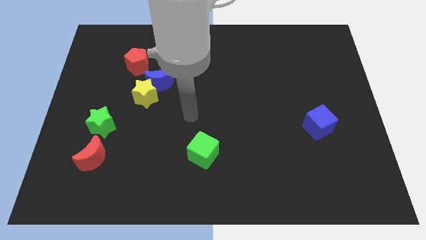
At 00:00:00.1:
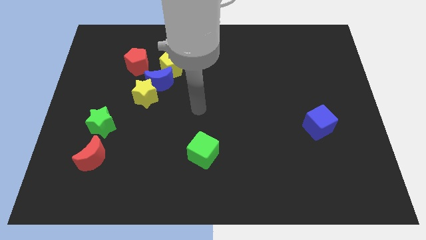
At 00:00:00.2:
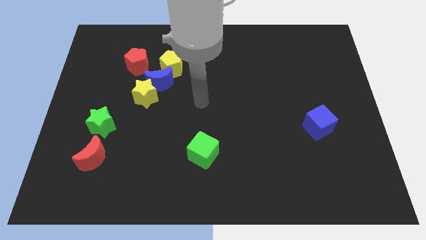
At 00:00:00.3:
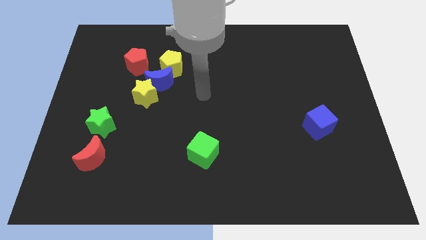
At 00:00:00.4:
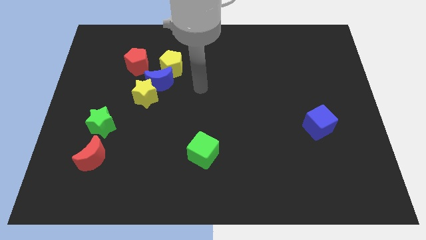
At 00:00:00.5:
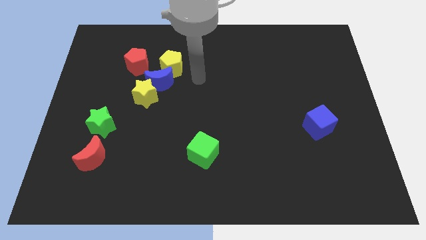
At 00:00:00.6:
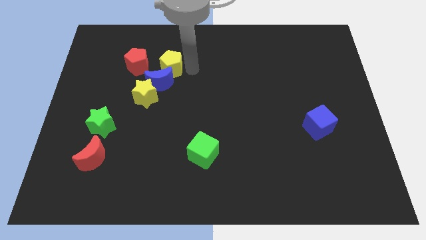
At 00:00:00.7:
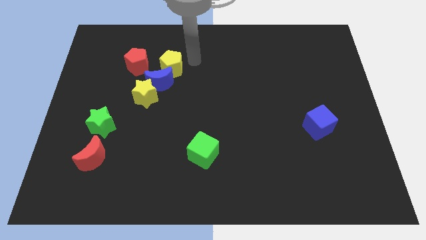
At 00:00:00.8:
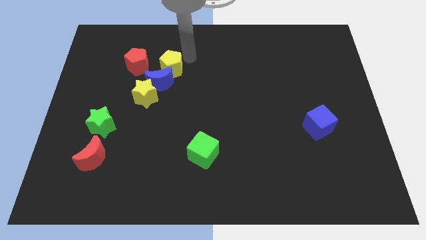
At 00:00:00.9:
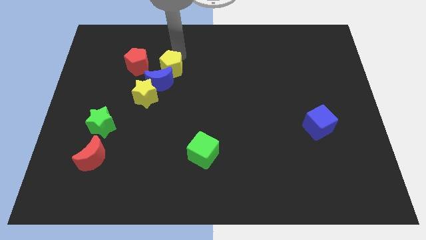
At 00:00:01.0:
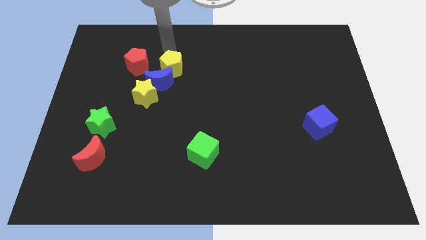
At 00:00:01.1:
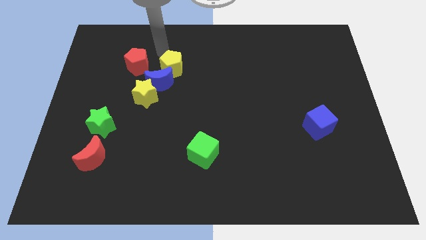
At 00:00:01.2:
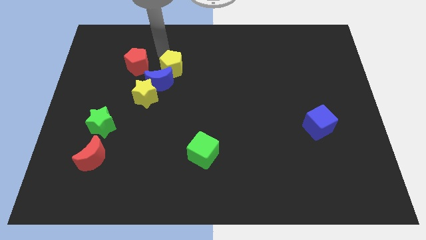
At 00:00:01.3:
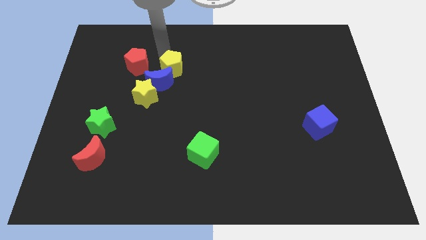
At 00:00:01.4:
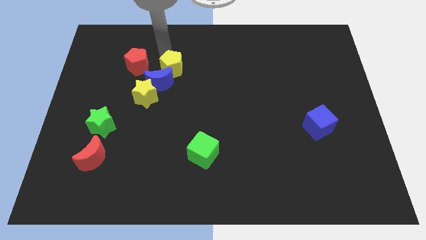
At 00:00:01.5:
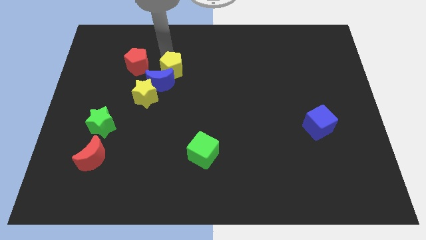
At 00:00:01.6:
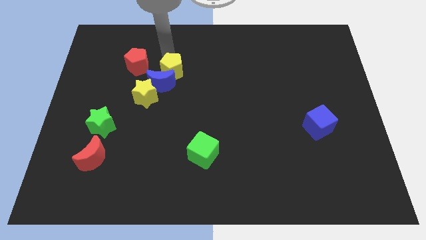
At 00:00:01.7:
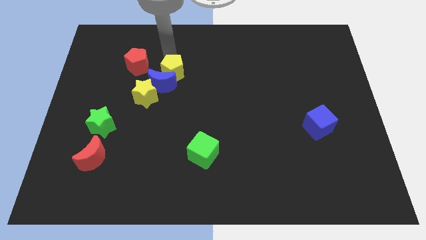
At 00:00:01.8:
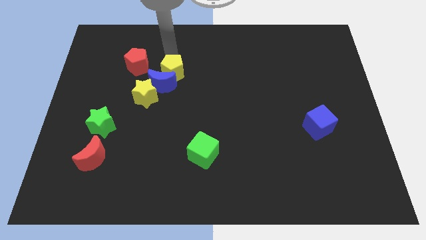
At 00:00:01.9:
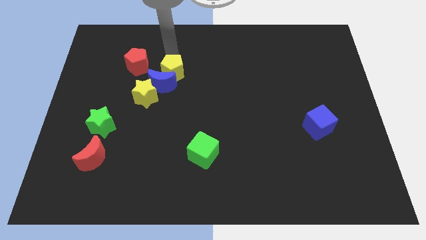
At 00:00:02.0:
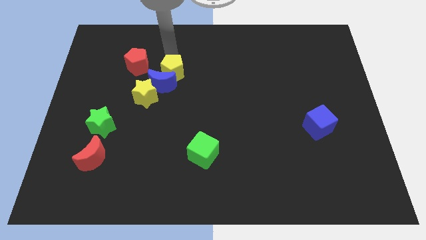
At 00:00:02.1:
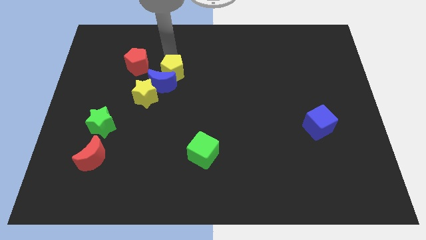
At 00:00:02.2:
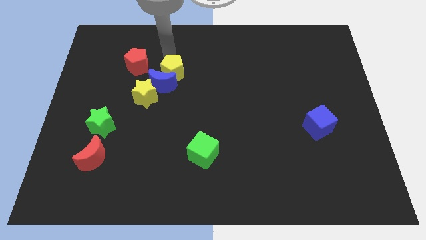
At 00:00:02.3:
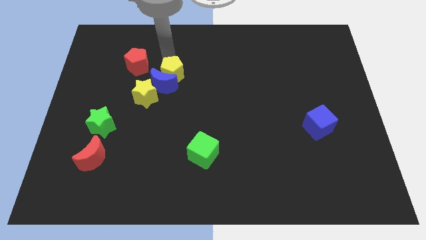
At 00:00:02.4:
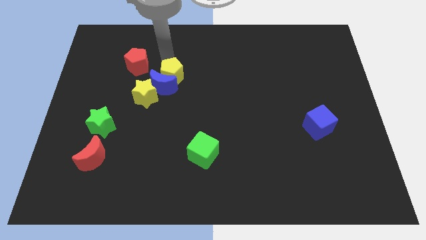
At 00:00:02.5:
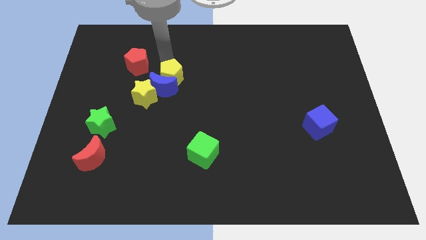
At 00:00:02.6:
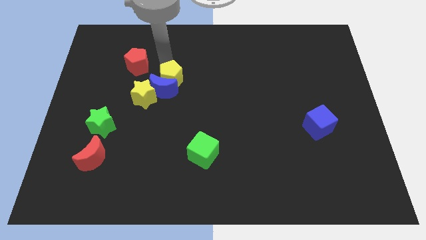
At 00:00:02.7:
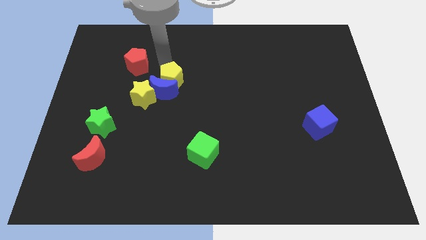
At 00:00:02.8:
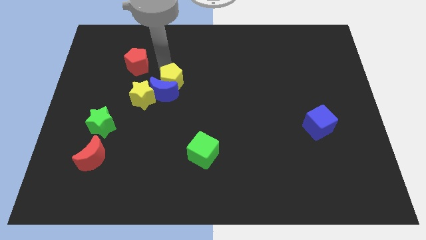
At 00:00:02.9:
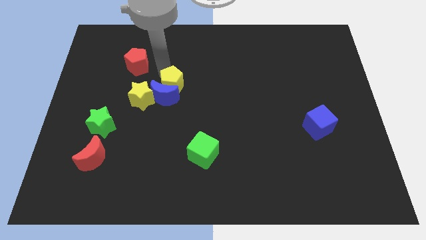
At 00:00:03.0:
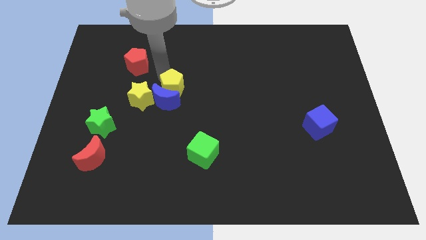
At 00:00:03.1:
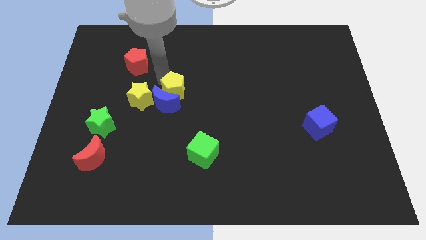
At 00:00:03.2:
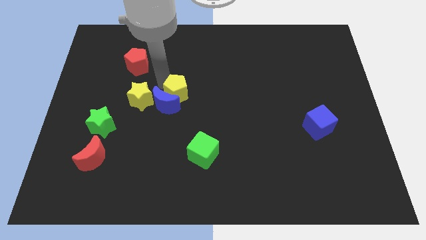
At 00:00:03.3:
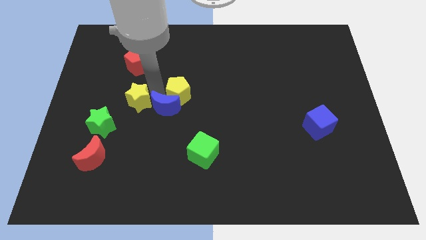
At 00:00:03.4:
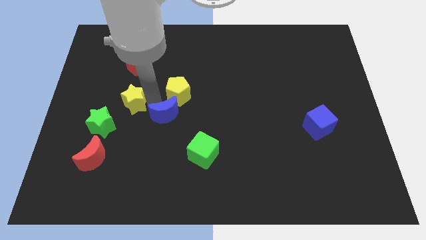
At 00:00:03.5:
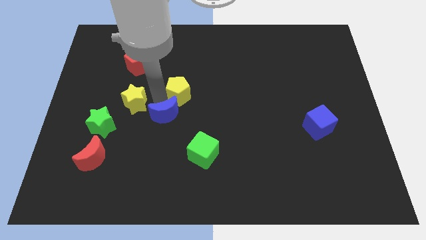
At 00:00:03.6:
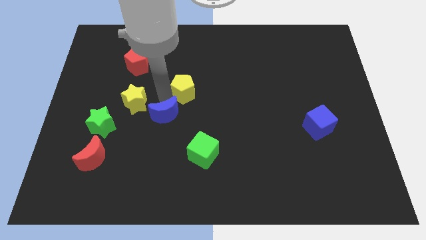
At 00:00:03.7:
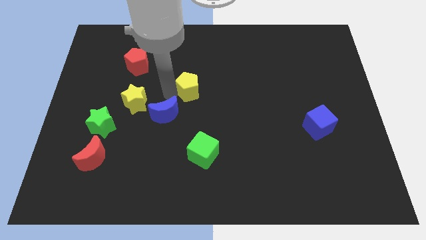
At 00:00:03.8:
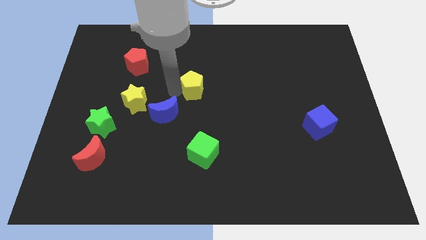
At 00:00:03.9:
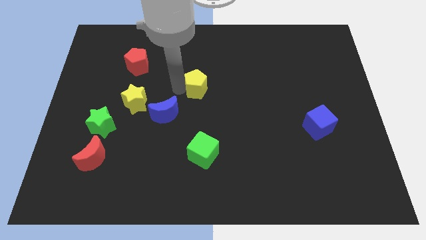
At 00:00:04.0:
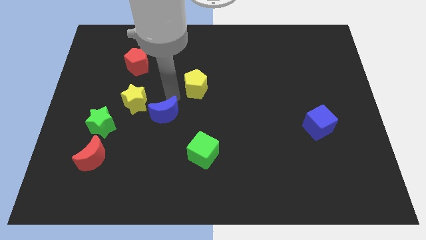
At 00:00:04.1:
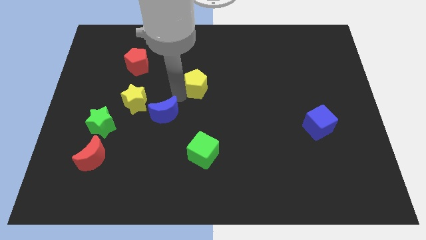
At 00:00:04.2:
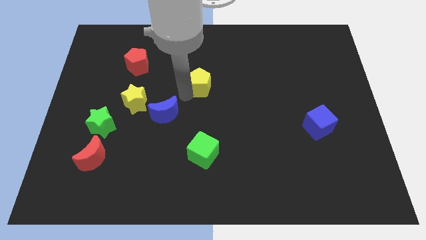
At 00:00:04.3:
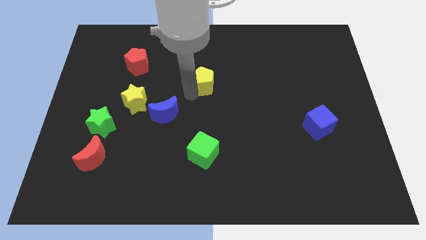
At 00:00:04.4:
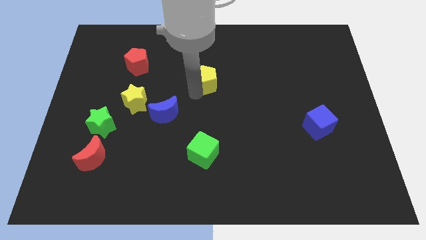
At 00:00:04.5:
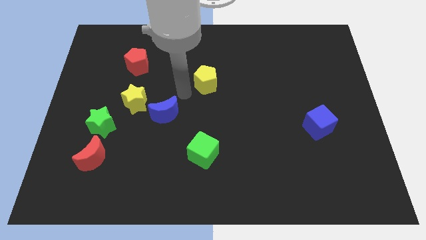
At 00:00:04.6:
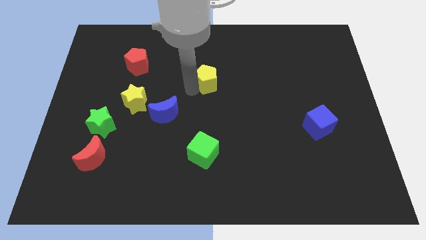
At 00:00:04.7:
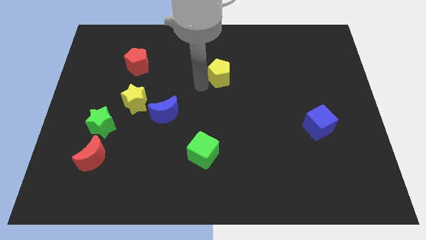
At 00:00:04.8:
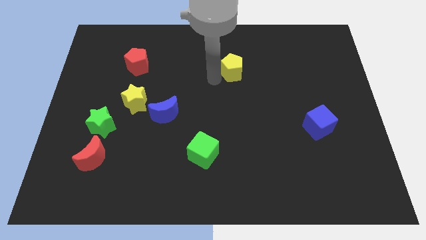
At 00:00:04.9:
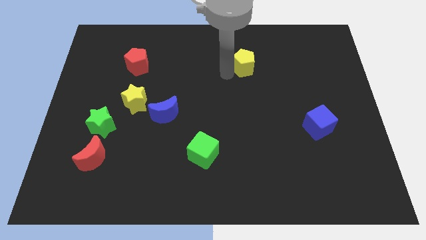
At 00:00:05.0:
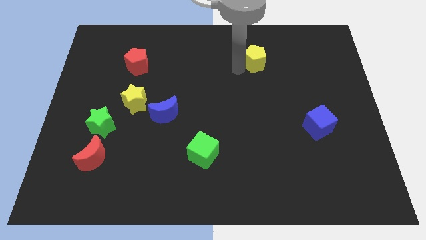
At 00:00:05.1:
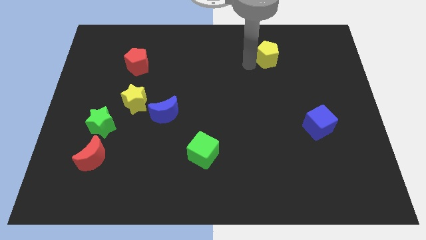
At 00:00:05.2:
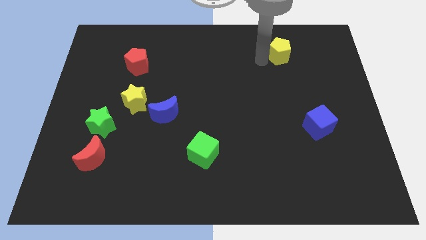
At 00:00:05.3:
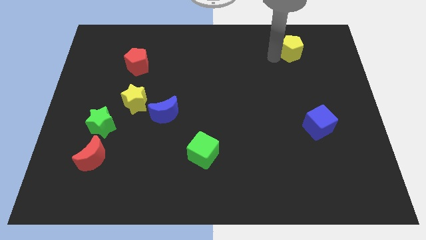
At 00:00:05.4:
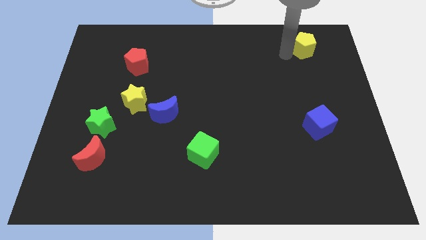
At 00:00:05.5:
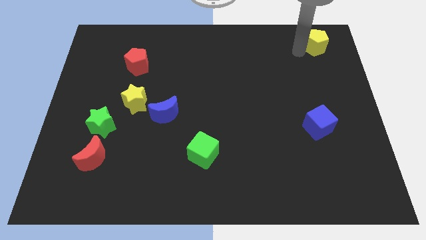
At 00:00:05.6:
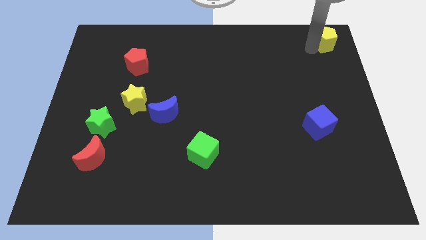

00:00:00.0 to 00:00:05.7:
put the yellow pentagon to the top right of the board

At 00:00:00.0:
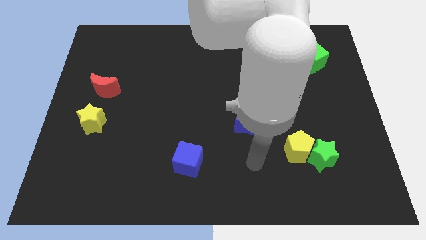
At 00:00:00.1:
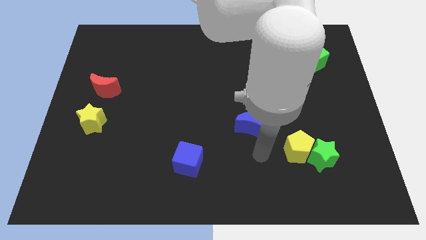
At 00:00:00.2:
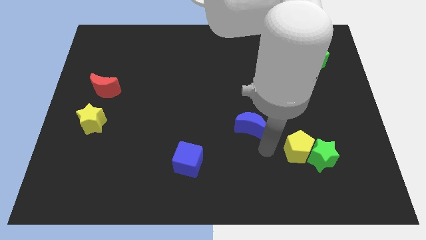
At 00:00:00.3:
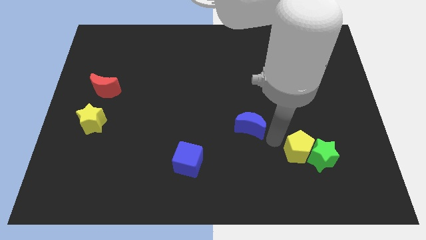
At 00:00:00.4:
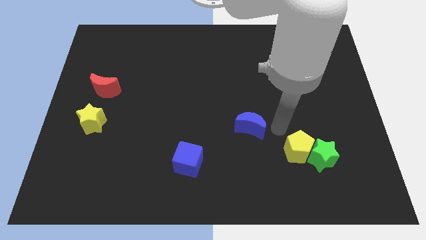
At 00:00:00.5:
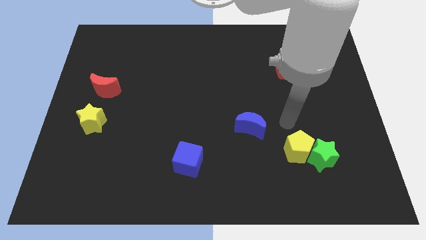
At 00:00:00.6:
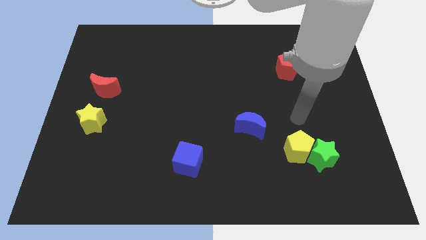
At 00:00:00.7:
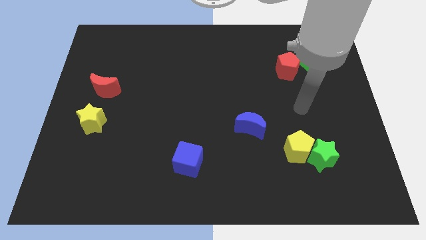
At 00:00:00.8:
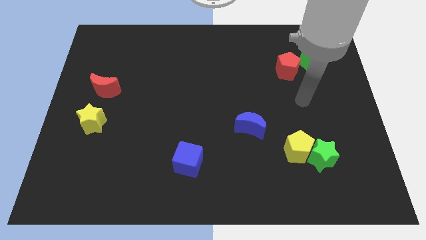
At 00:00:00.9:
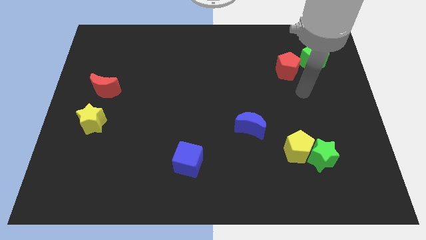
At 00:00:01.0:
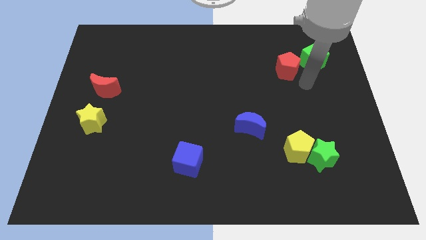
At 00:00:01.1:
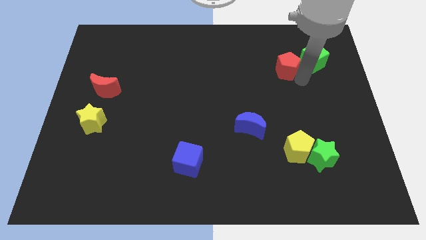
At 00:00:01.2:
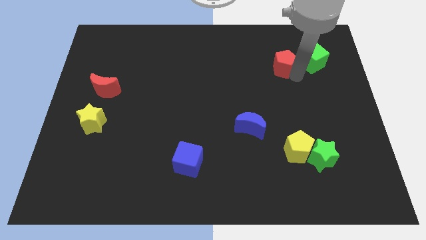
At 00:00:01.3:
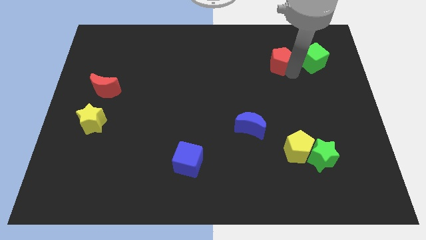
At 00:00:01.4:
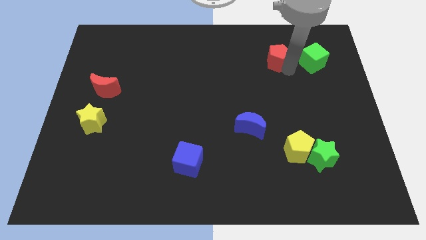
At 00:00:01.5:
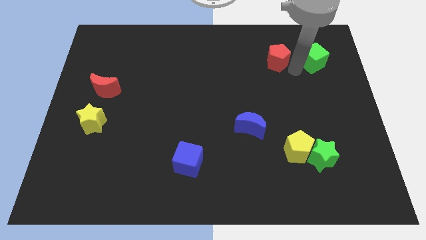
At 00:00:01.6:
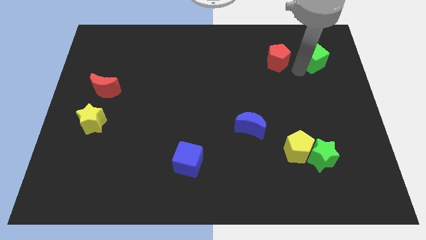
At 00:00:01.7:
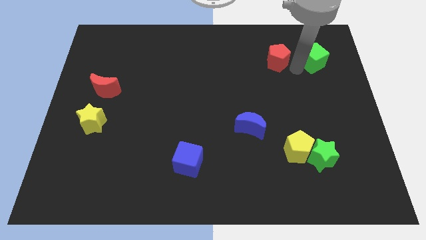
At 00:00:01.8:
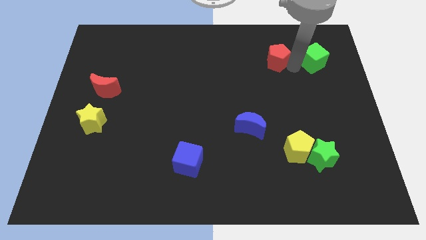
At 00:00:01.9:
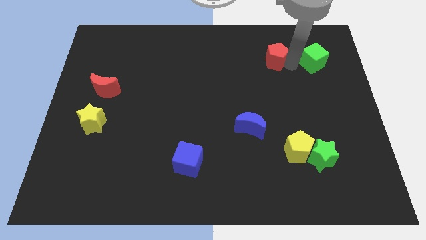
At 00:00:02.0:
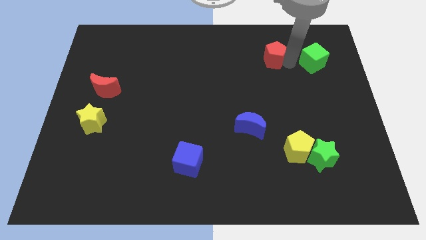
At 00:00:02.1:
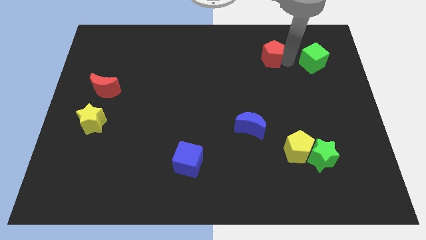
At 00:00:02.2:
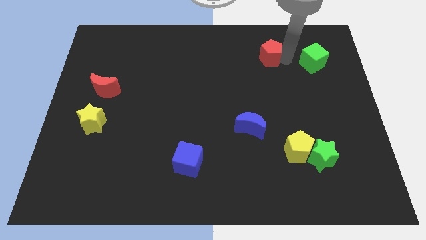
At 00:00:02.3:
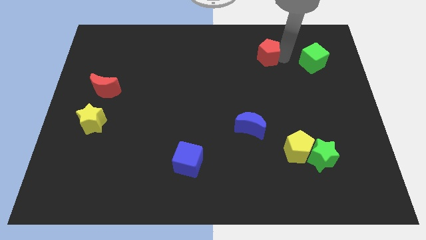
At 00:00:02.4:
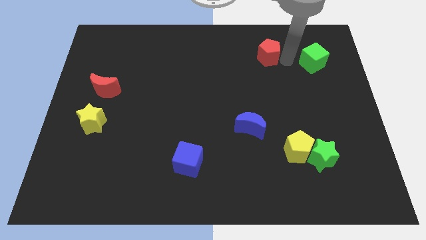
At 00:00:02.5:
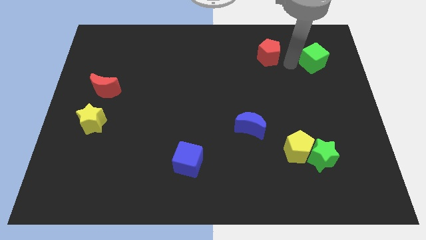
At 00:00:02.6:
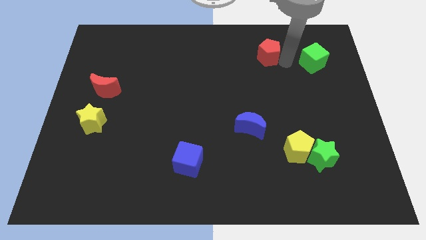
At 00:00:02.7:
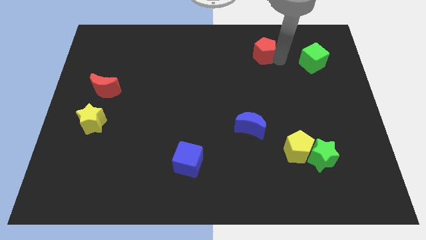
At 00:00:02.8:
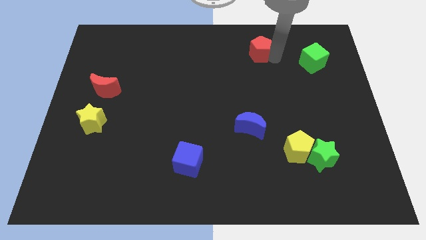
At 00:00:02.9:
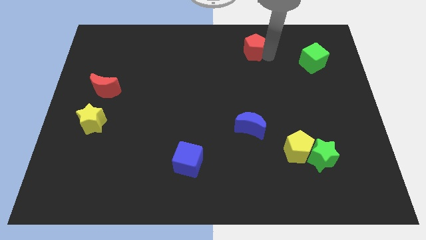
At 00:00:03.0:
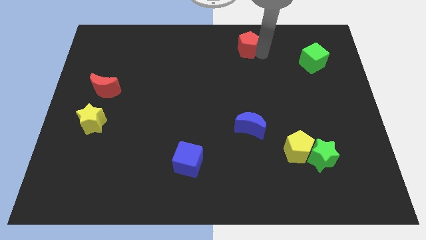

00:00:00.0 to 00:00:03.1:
push the red pentagon to the top side
